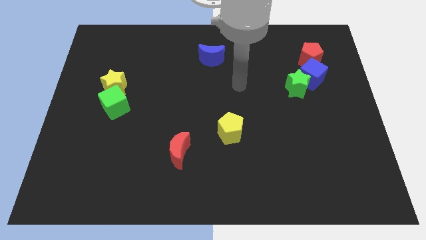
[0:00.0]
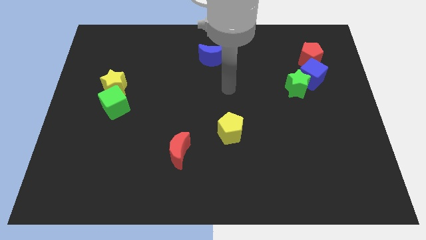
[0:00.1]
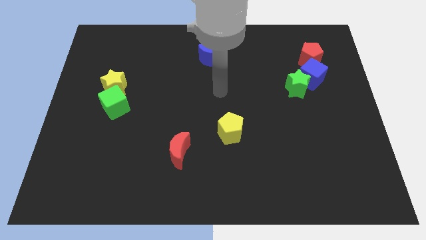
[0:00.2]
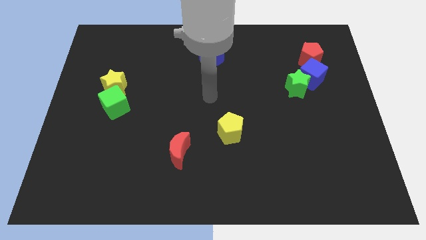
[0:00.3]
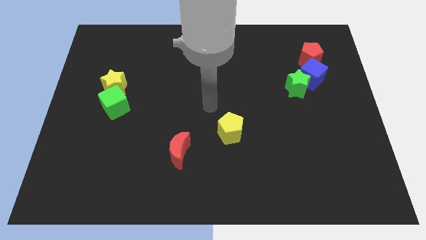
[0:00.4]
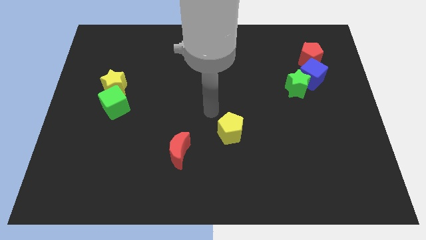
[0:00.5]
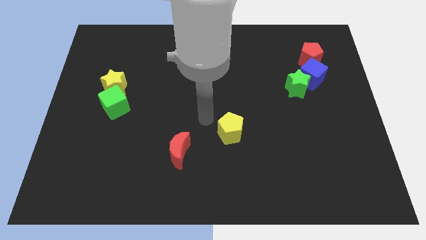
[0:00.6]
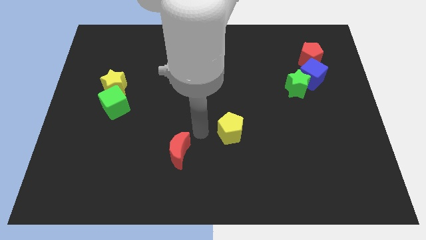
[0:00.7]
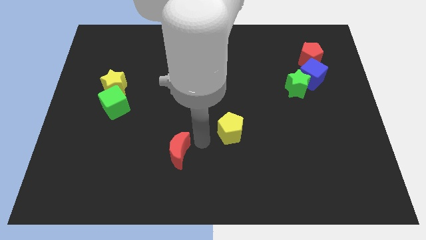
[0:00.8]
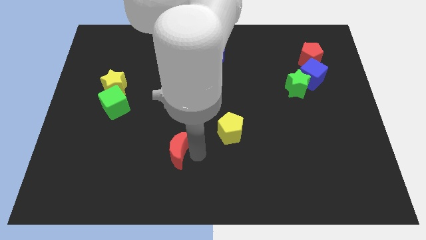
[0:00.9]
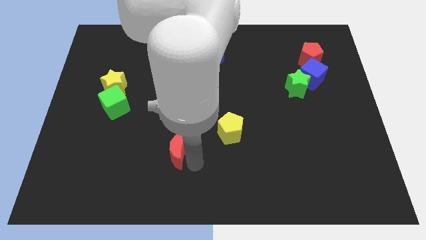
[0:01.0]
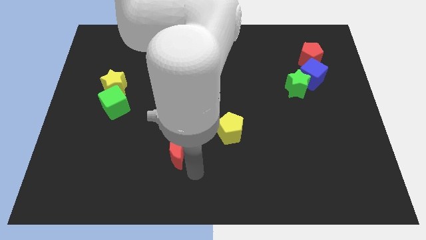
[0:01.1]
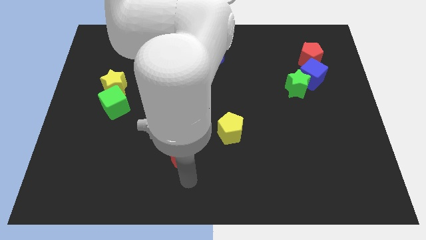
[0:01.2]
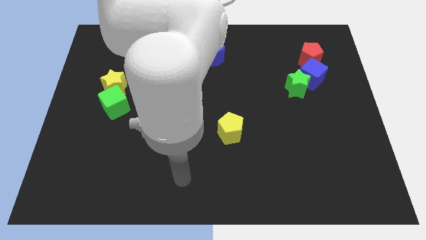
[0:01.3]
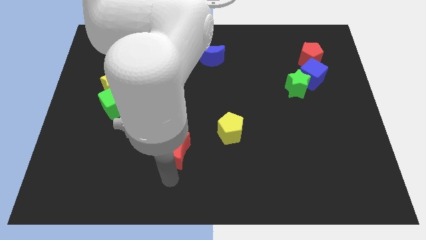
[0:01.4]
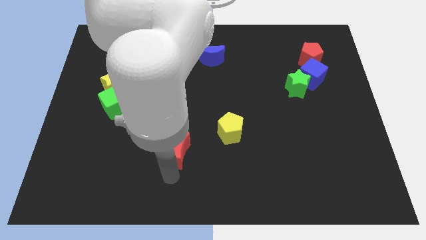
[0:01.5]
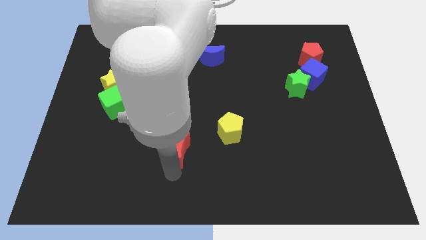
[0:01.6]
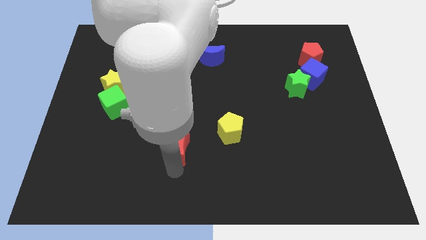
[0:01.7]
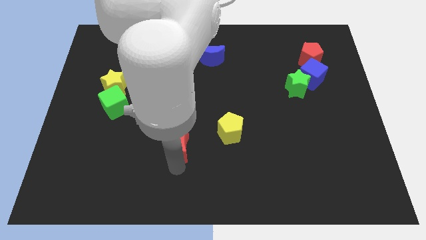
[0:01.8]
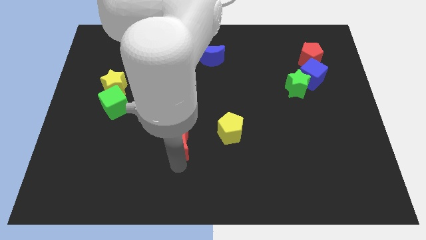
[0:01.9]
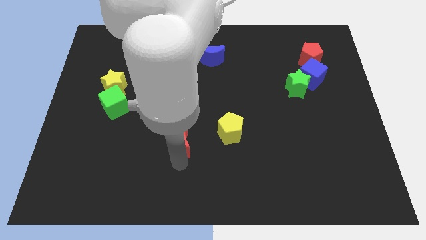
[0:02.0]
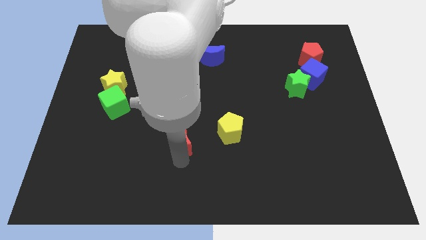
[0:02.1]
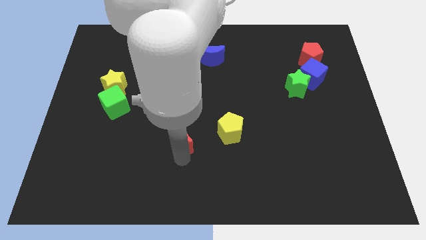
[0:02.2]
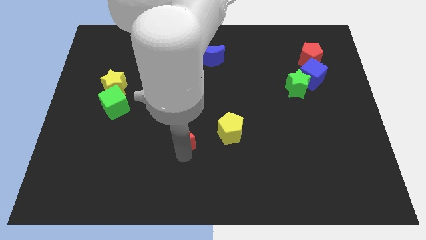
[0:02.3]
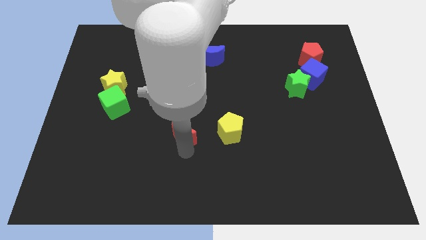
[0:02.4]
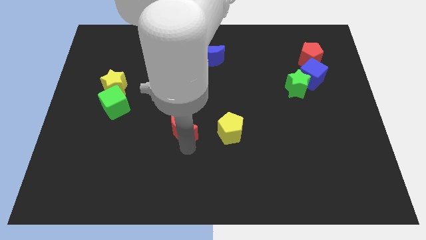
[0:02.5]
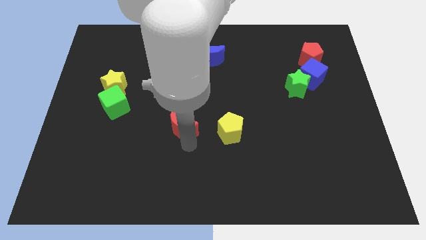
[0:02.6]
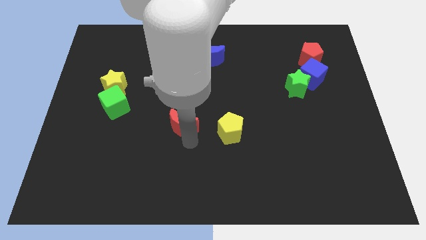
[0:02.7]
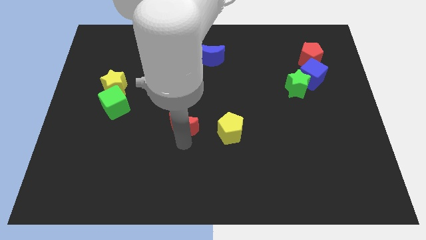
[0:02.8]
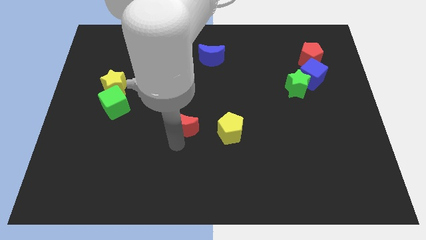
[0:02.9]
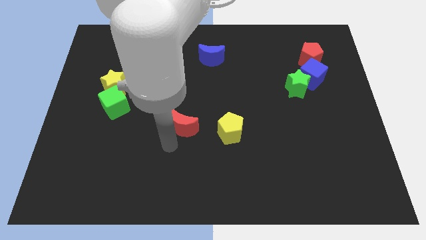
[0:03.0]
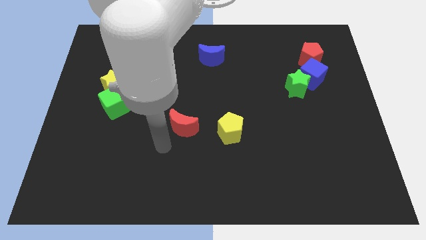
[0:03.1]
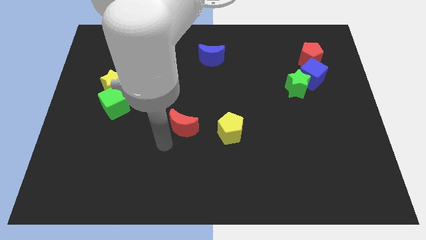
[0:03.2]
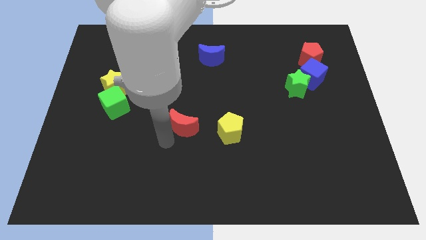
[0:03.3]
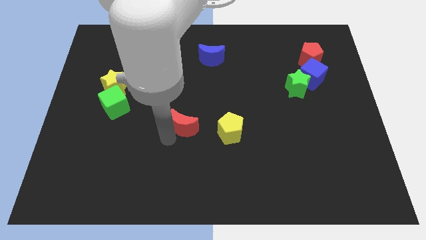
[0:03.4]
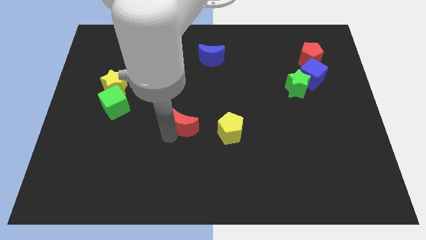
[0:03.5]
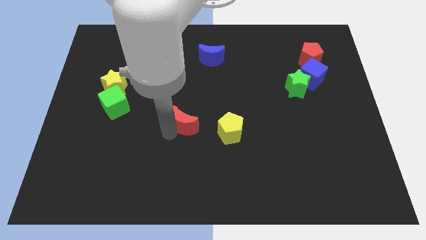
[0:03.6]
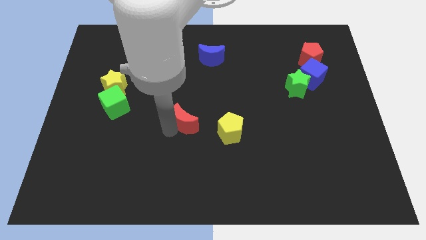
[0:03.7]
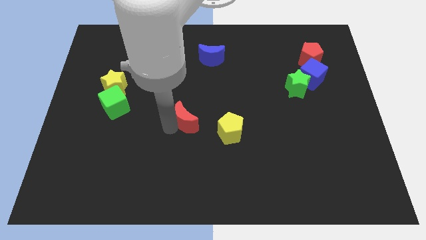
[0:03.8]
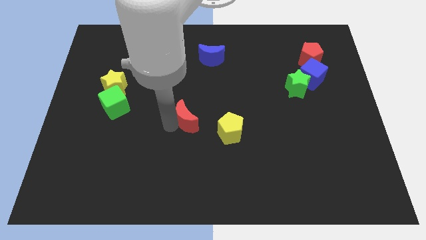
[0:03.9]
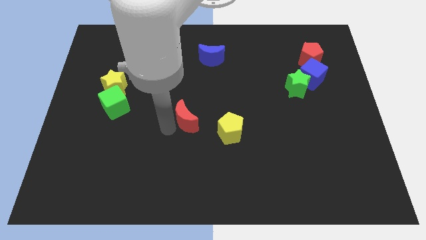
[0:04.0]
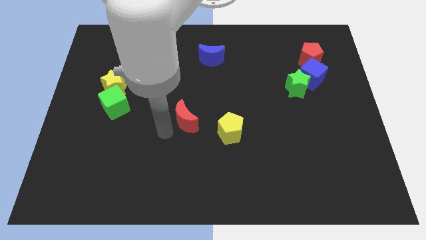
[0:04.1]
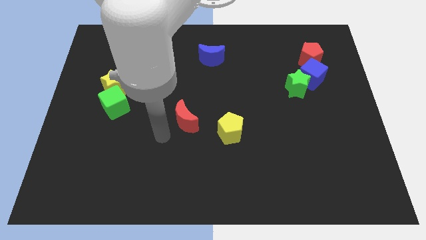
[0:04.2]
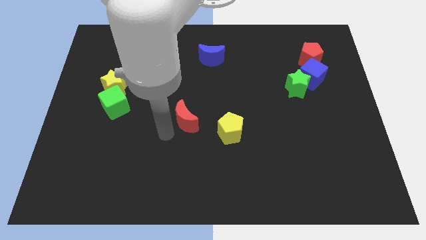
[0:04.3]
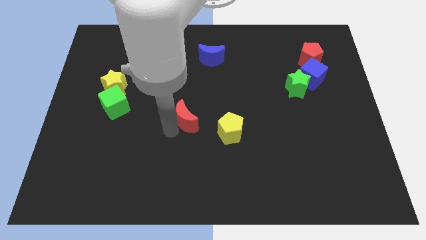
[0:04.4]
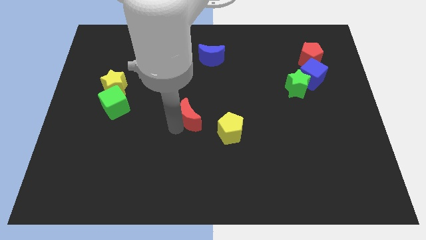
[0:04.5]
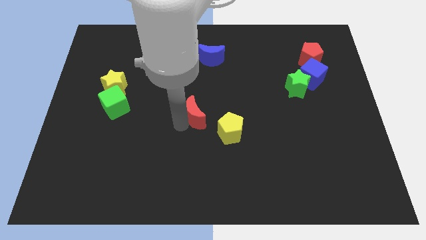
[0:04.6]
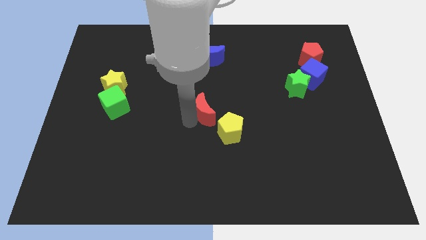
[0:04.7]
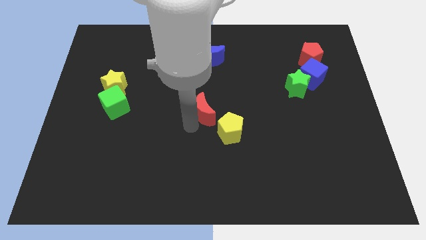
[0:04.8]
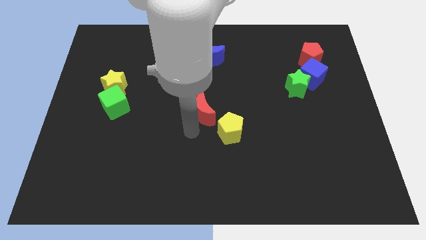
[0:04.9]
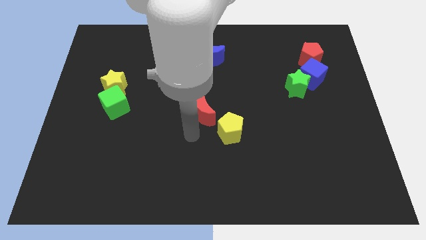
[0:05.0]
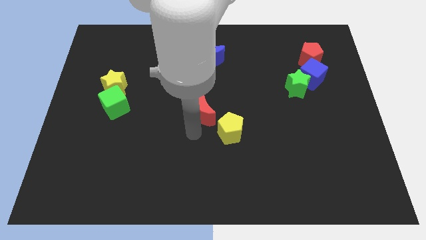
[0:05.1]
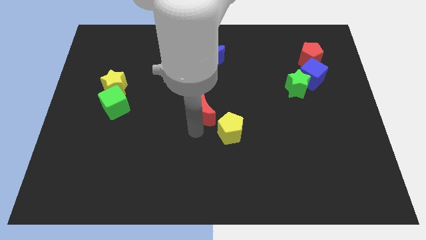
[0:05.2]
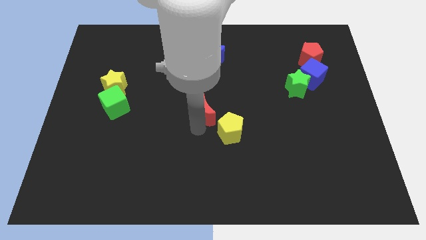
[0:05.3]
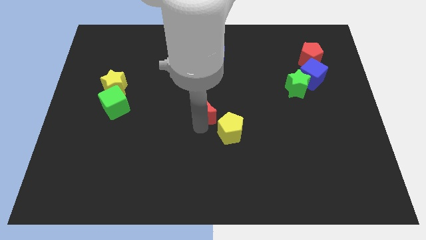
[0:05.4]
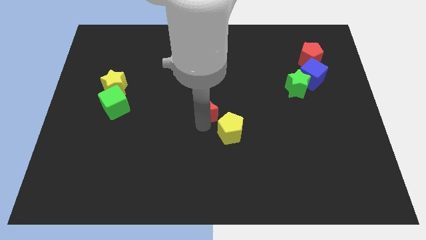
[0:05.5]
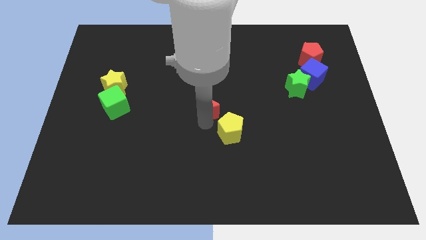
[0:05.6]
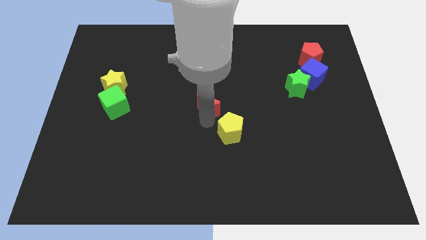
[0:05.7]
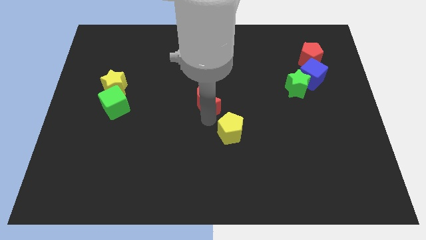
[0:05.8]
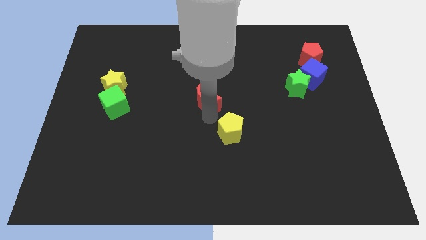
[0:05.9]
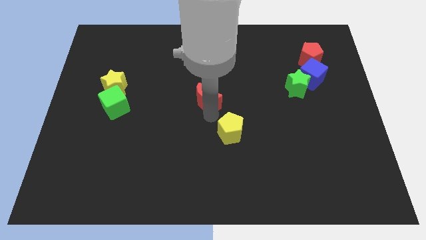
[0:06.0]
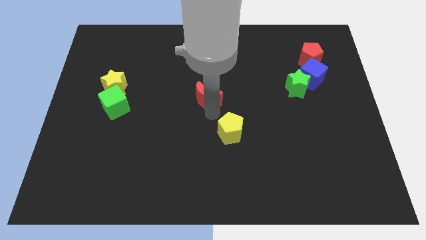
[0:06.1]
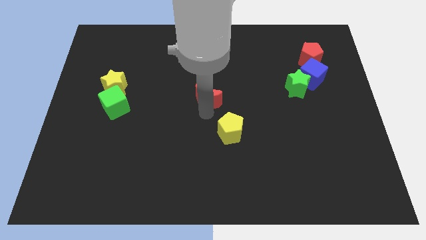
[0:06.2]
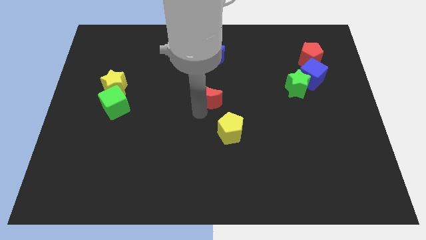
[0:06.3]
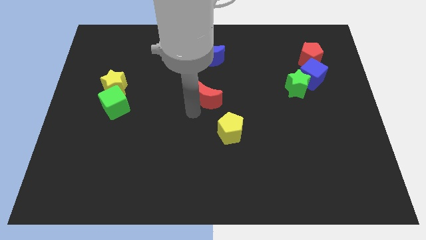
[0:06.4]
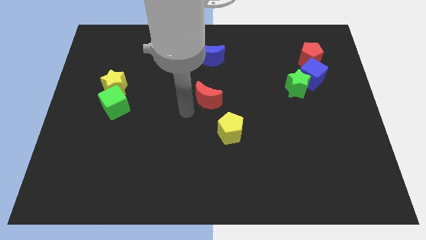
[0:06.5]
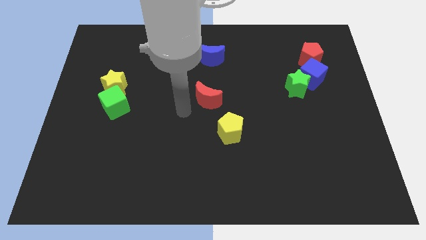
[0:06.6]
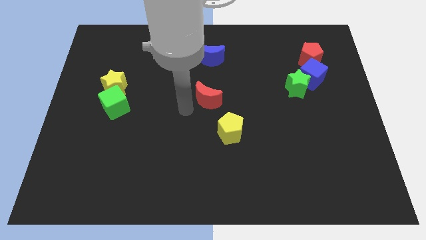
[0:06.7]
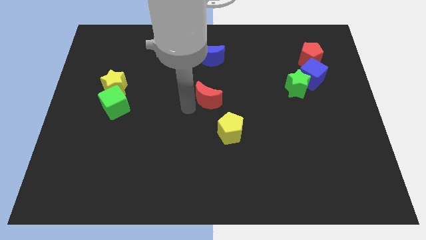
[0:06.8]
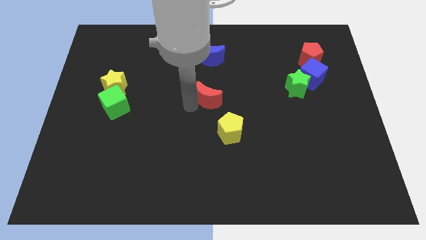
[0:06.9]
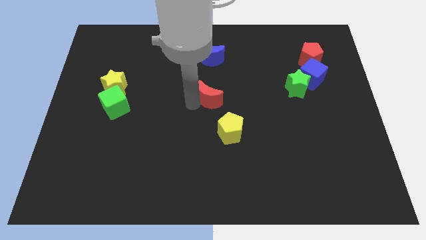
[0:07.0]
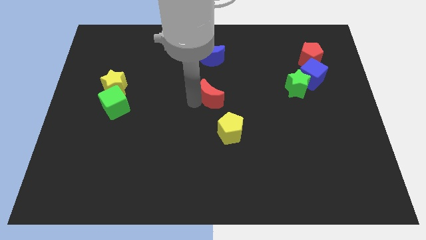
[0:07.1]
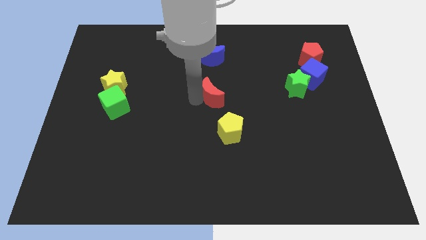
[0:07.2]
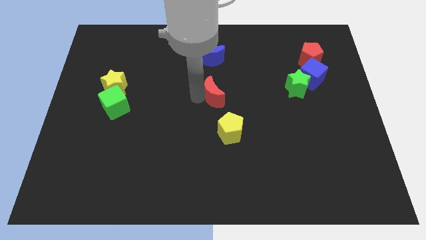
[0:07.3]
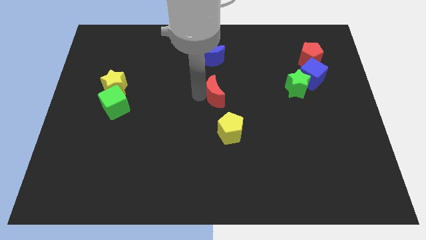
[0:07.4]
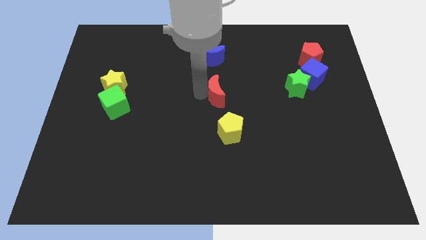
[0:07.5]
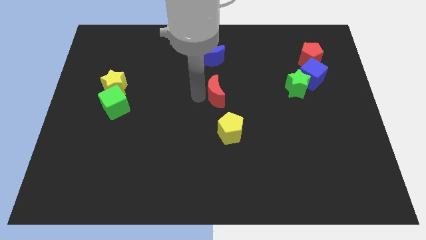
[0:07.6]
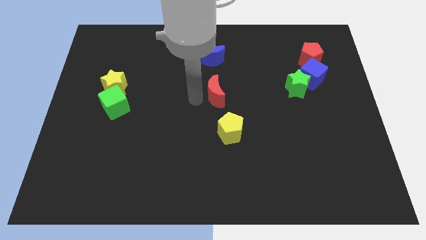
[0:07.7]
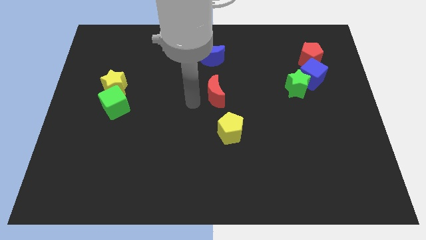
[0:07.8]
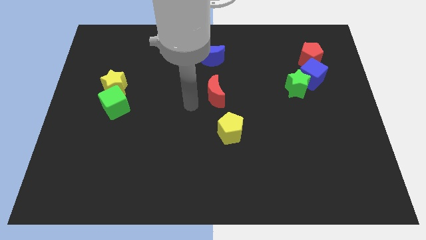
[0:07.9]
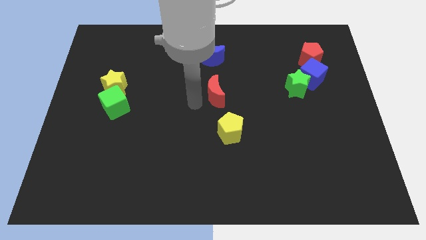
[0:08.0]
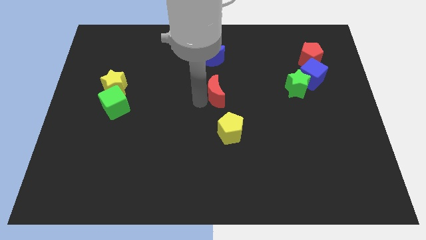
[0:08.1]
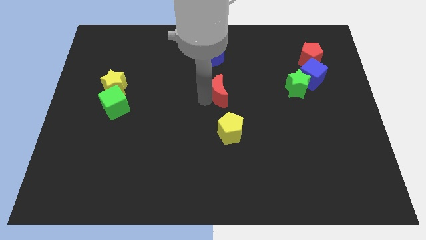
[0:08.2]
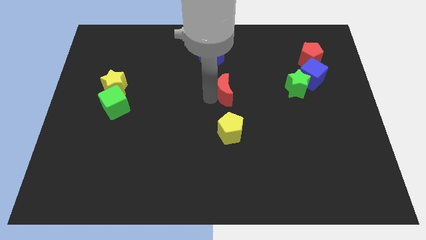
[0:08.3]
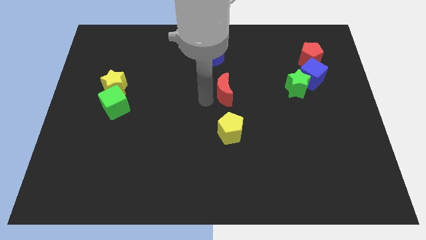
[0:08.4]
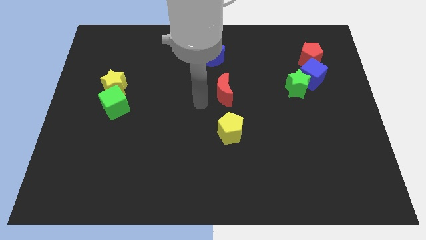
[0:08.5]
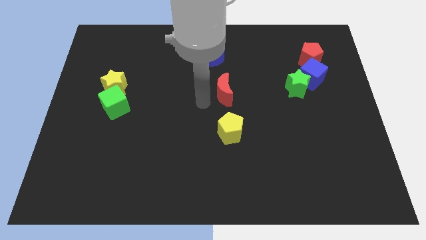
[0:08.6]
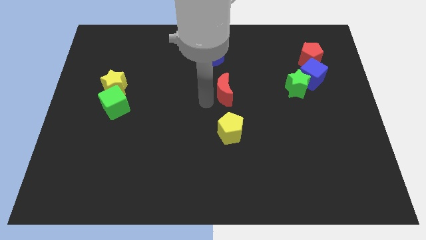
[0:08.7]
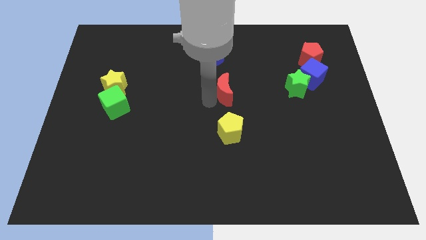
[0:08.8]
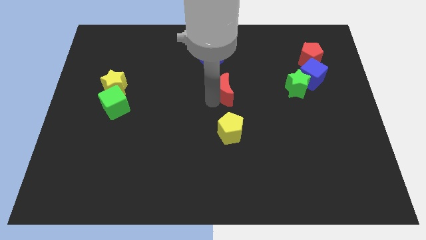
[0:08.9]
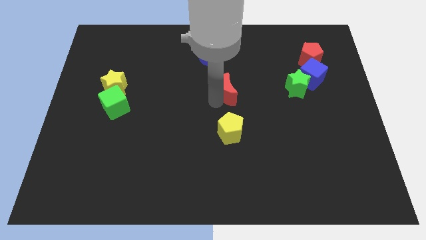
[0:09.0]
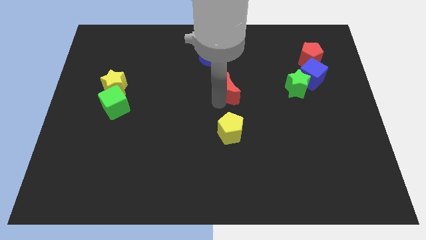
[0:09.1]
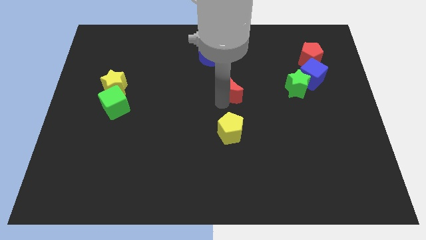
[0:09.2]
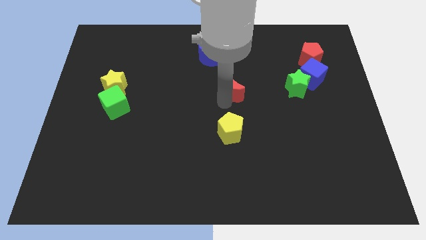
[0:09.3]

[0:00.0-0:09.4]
push the red moon upwards and to the right diagonally
